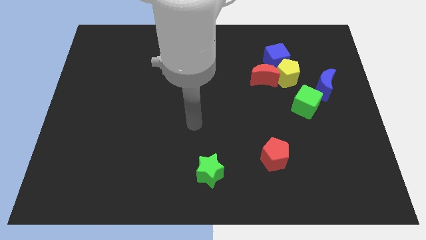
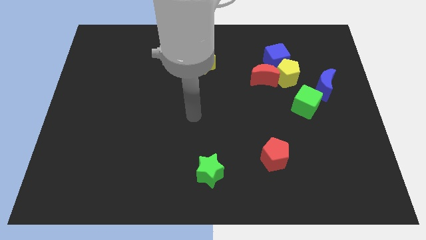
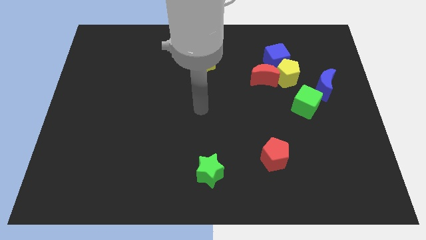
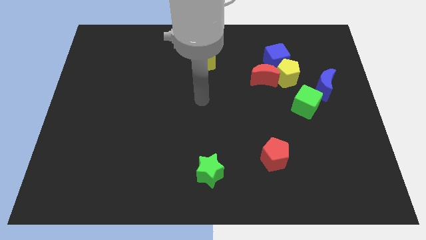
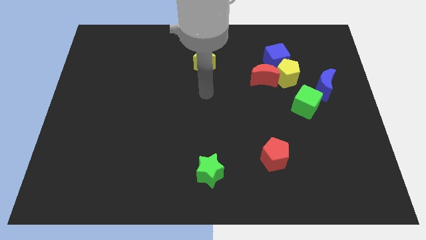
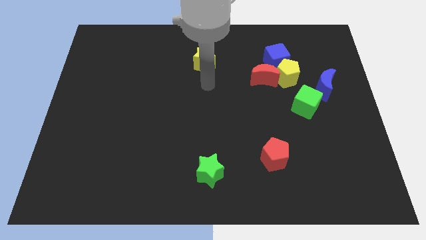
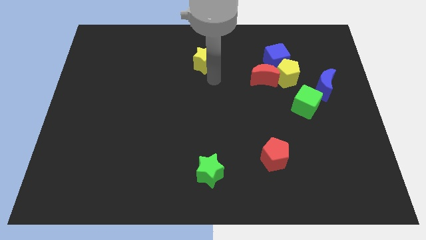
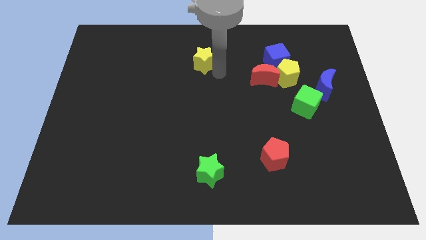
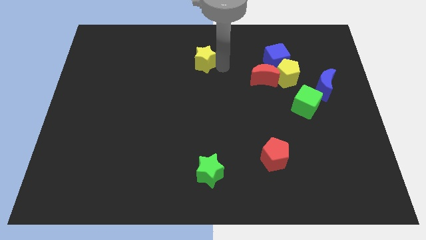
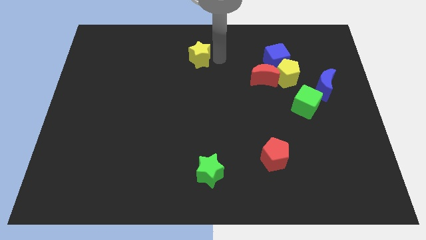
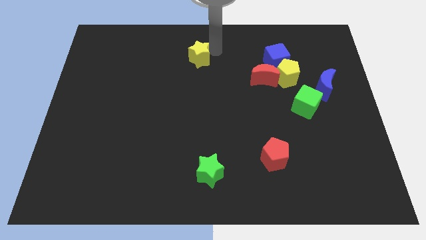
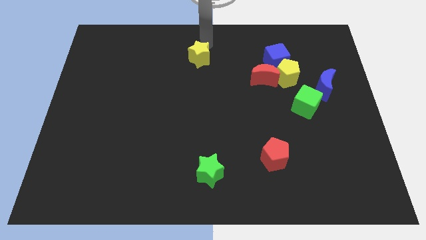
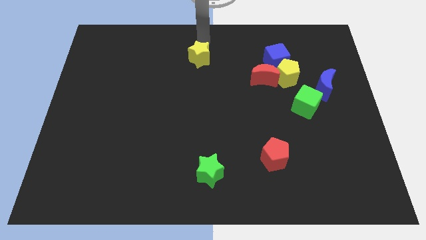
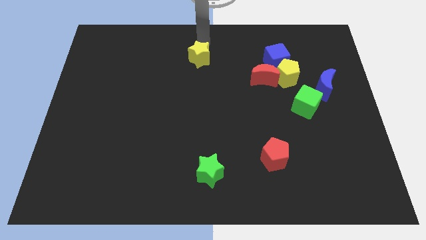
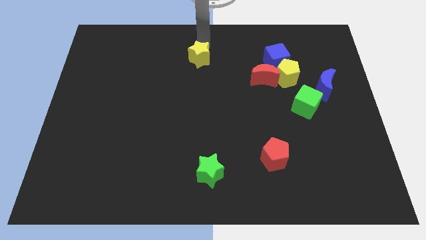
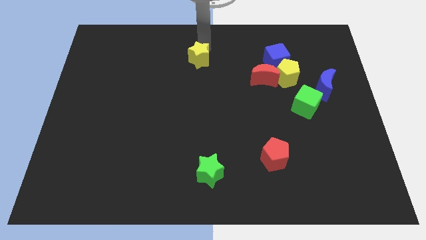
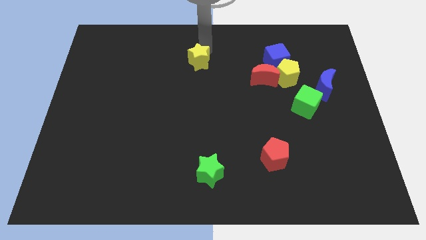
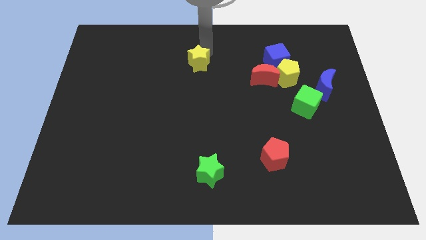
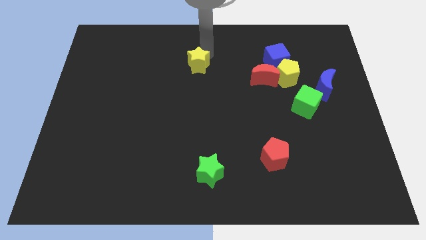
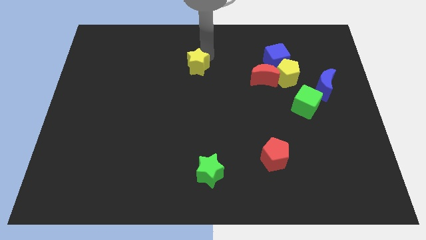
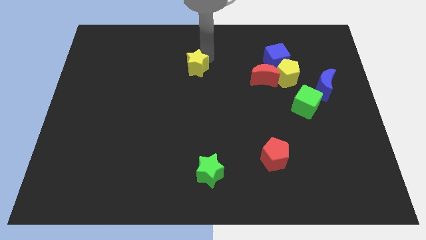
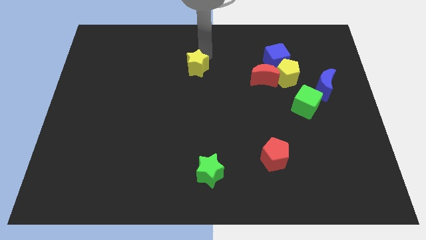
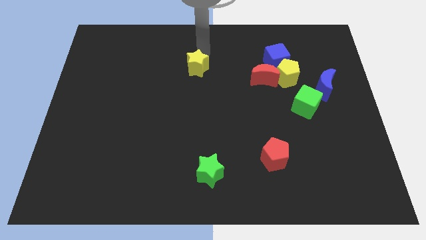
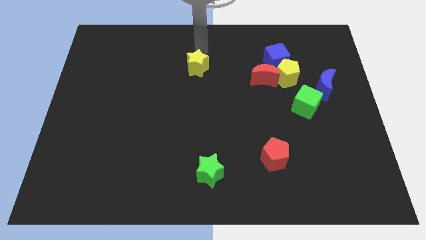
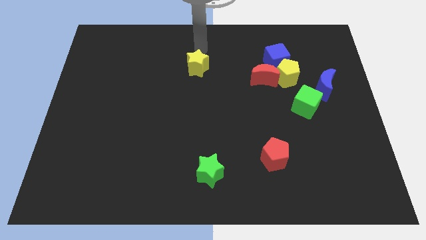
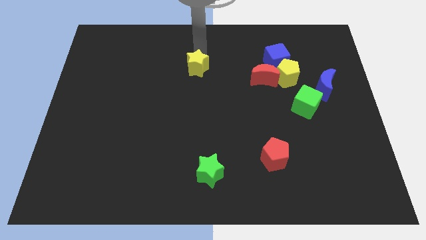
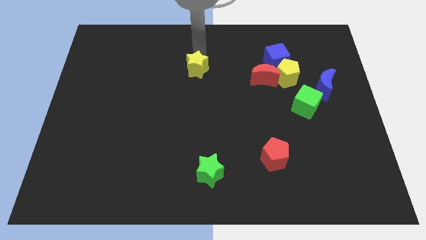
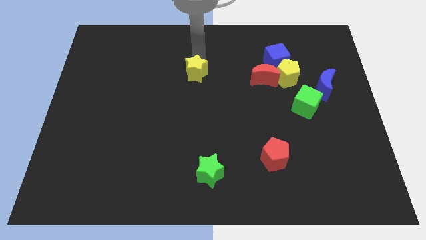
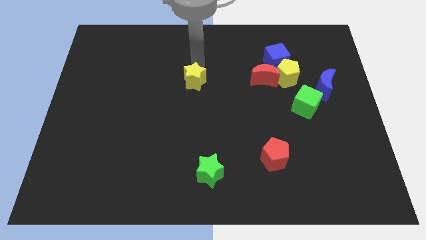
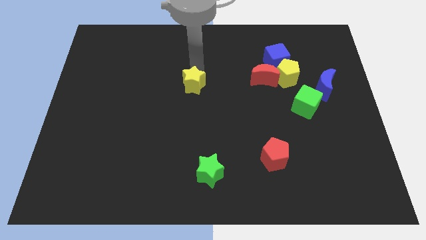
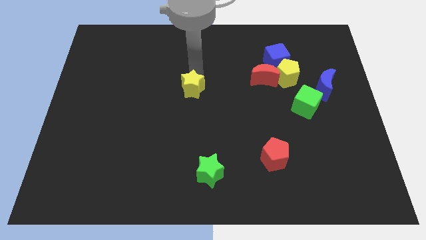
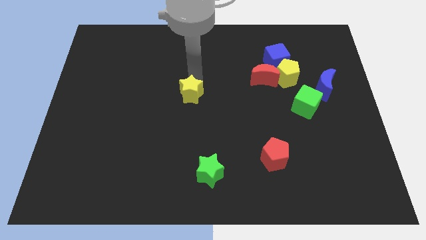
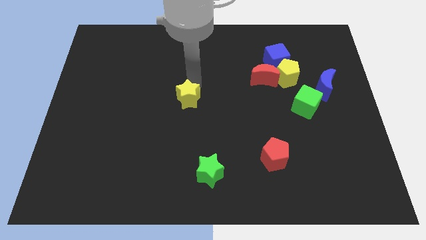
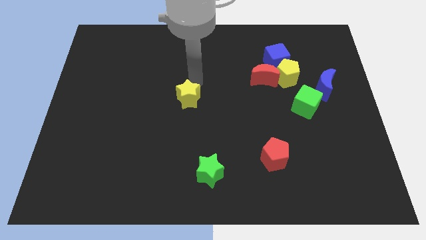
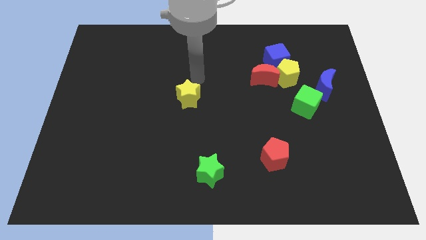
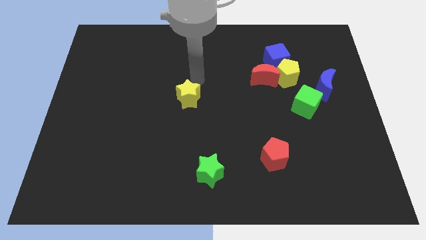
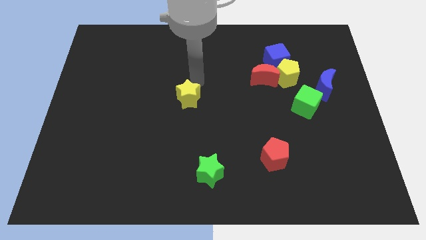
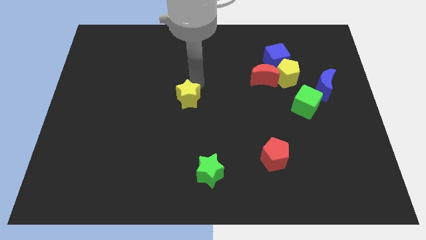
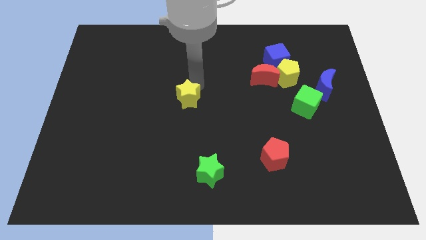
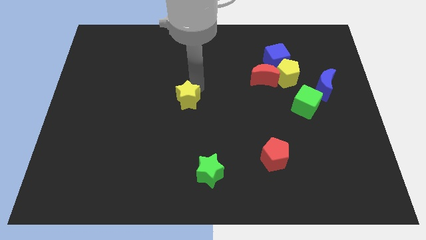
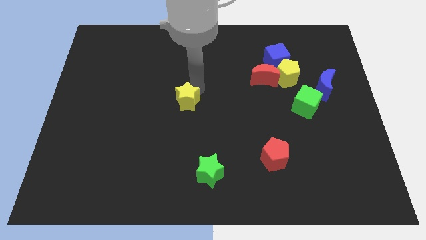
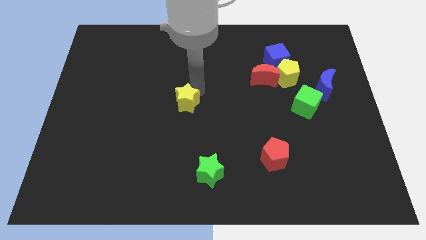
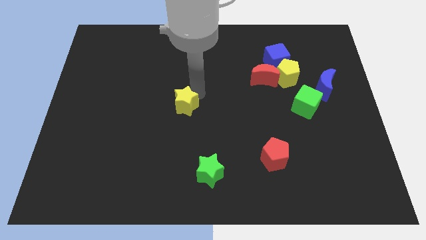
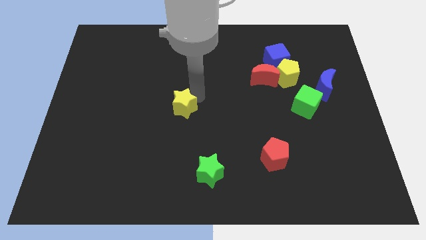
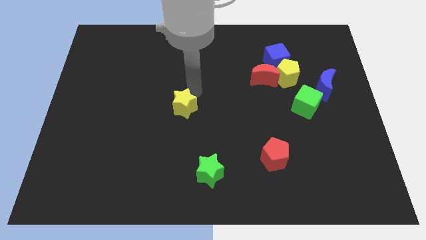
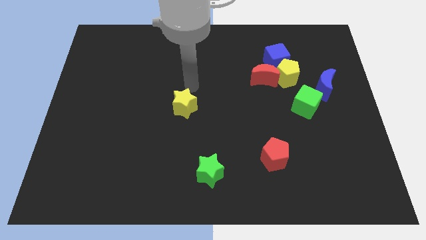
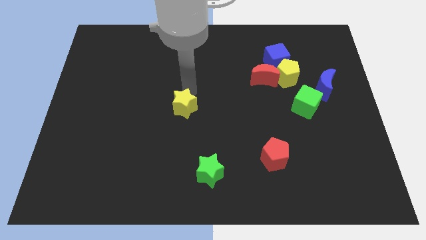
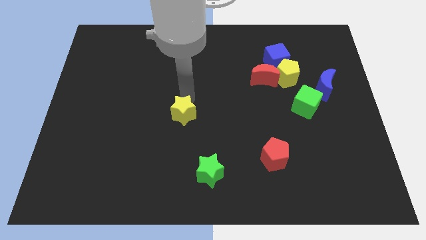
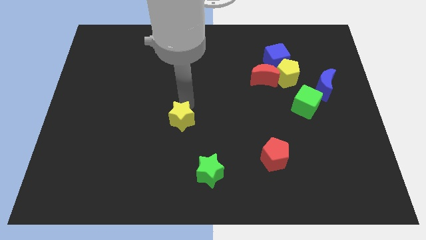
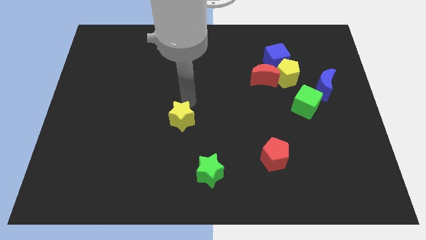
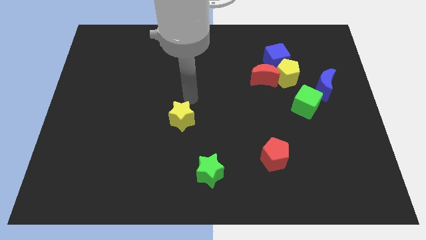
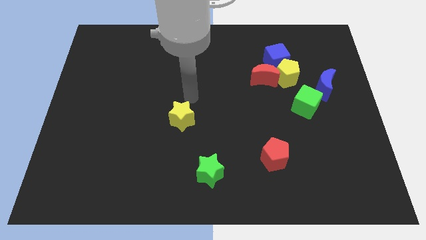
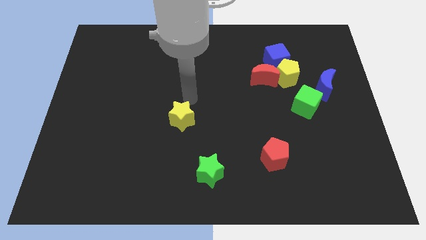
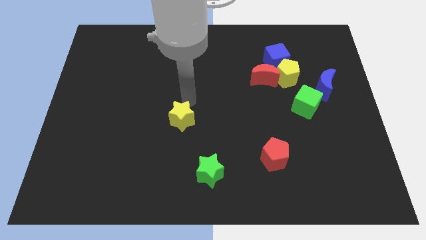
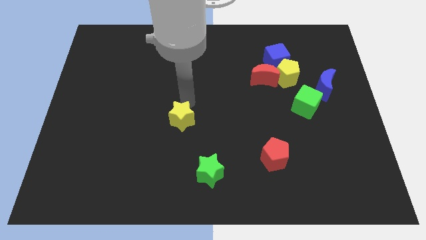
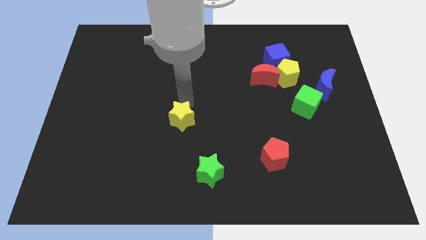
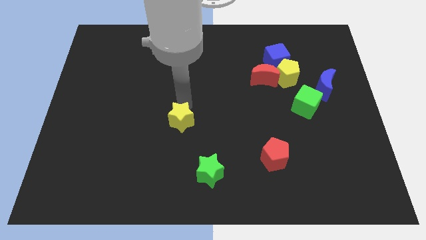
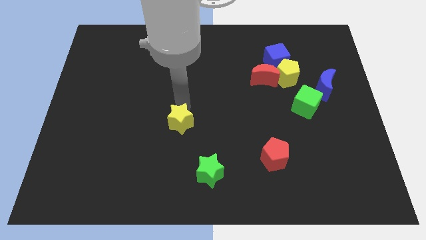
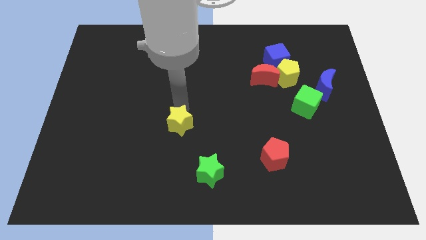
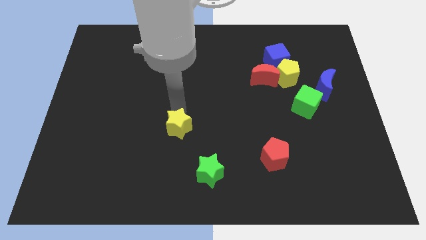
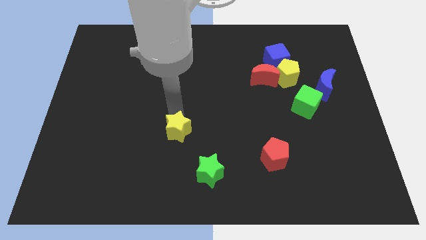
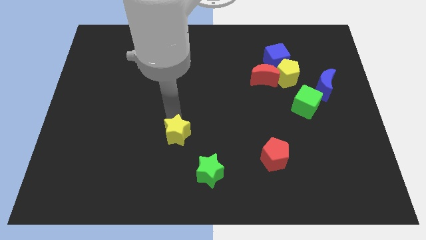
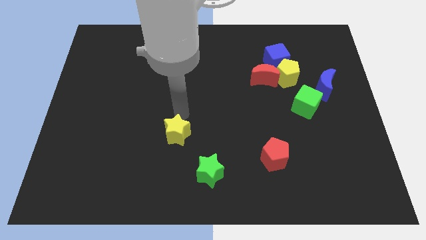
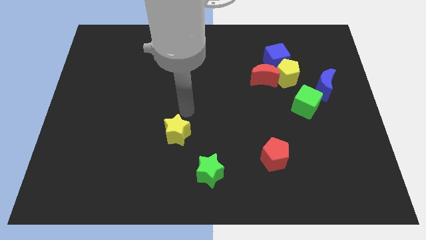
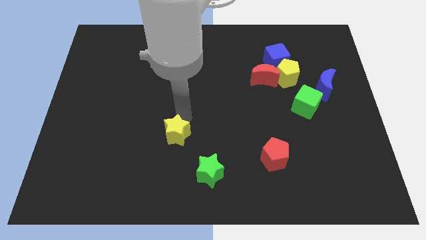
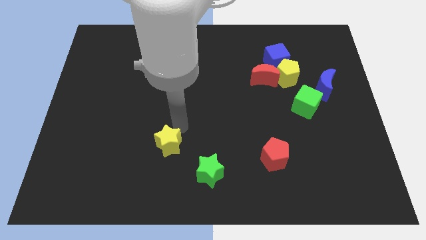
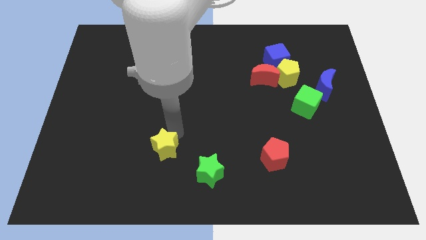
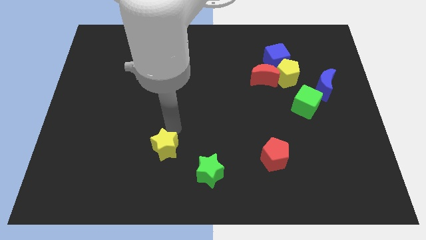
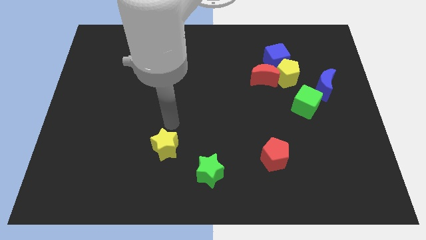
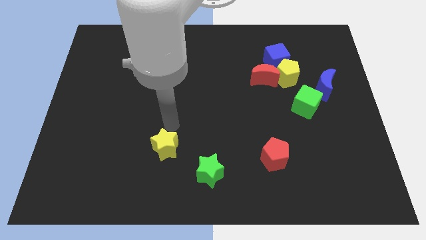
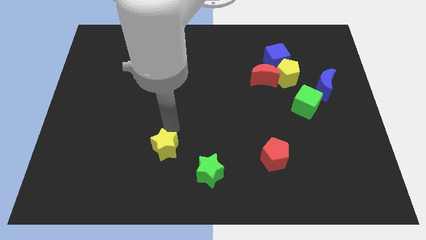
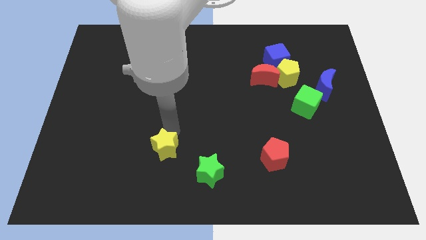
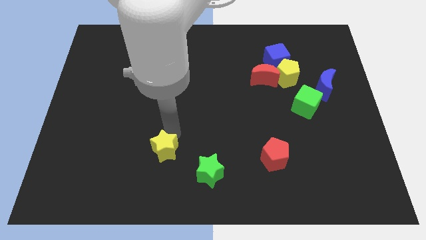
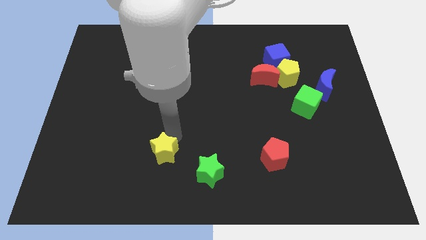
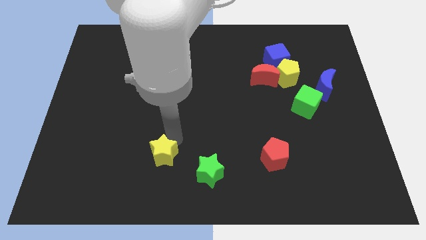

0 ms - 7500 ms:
push the yellow star left of the green star
